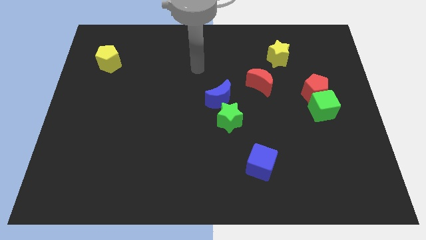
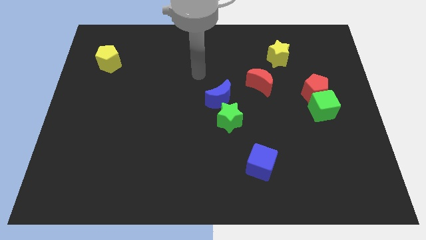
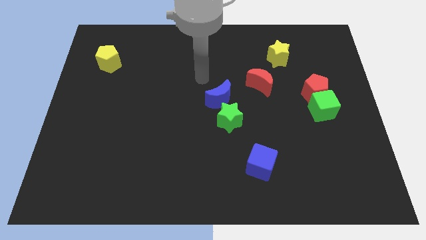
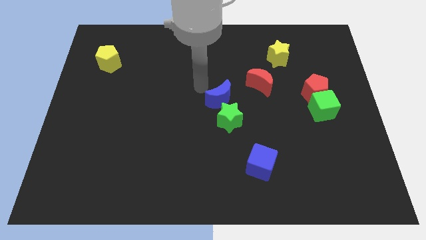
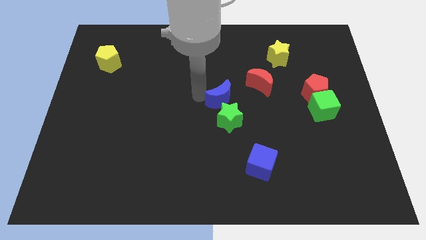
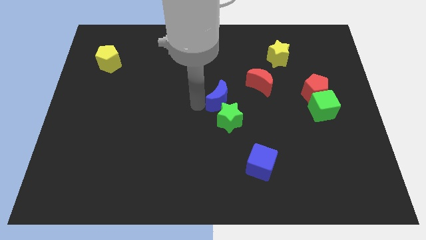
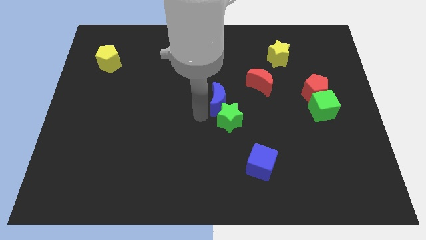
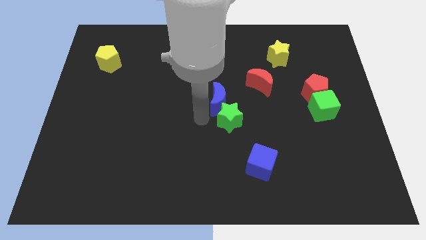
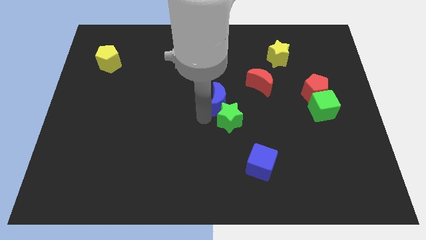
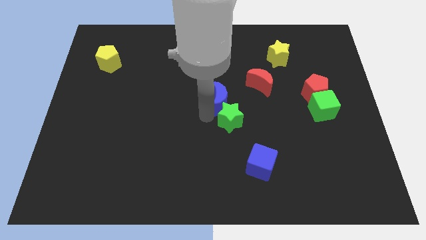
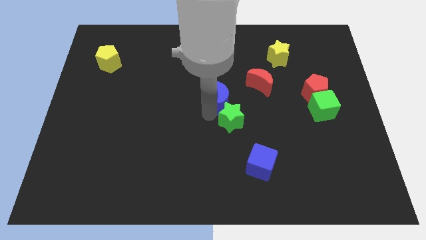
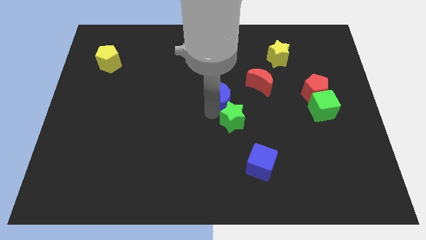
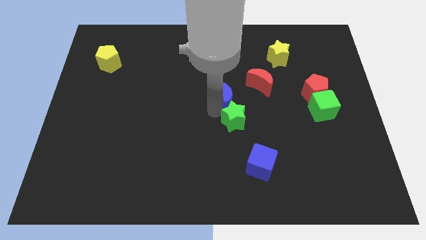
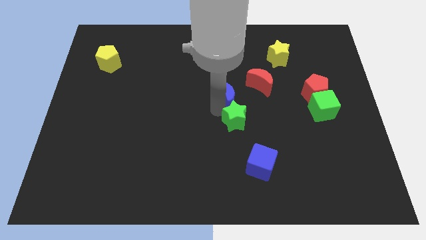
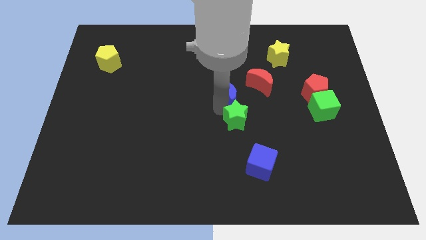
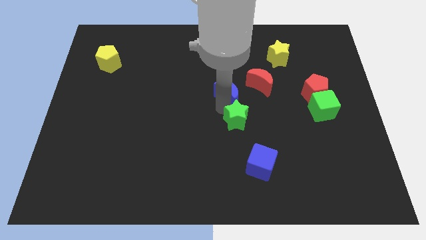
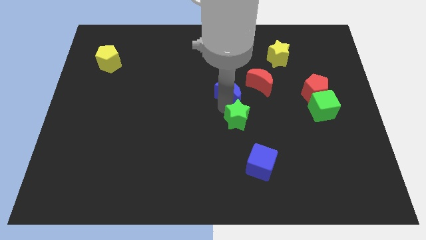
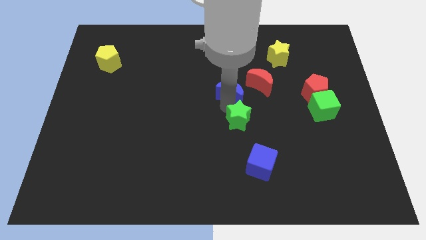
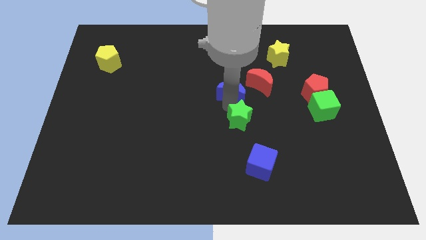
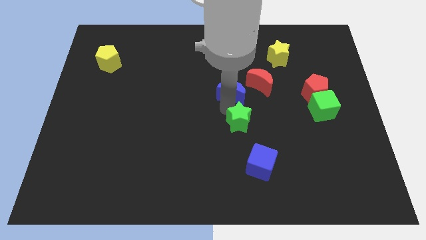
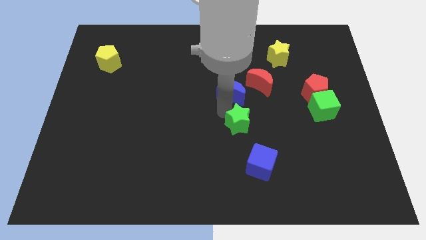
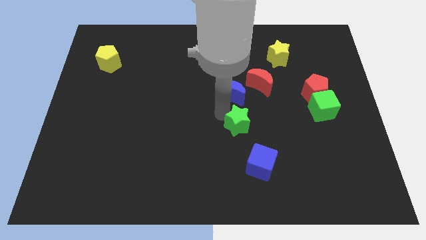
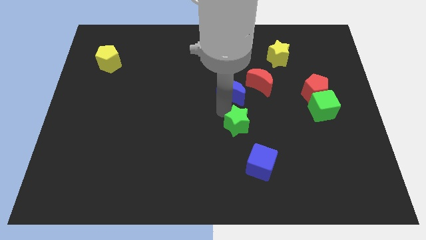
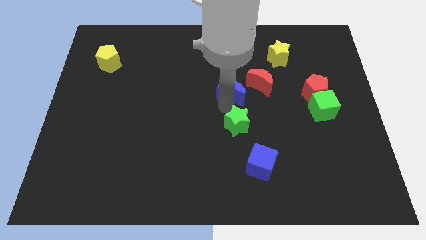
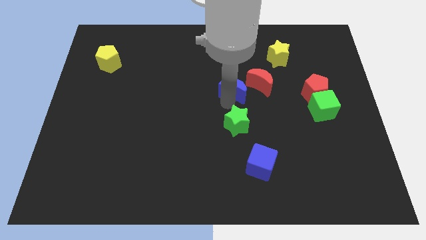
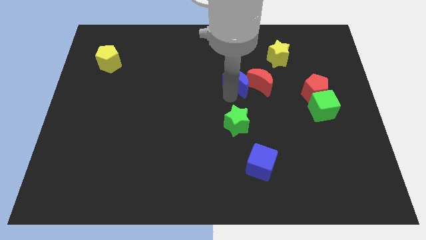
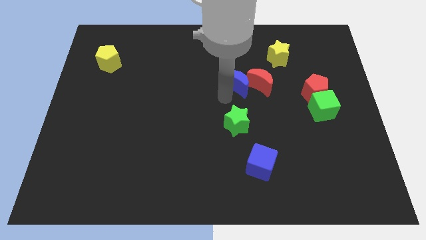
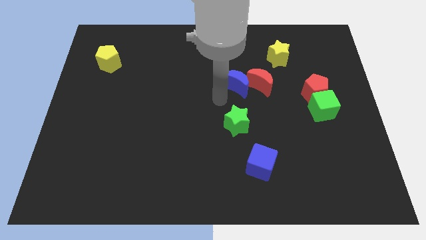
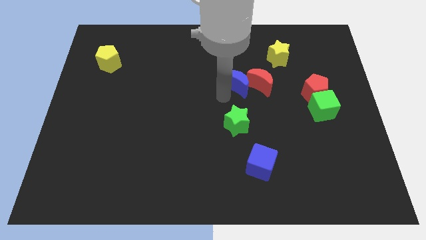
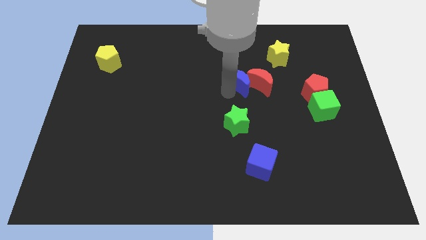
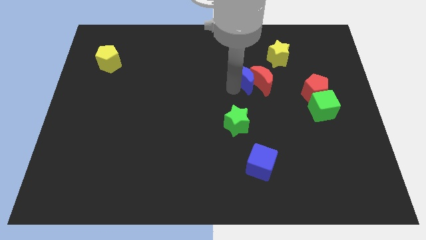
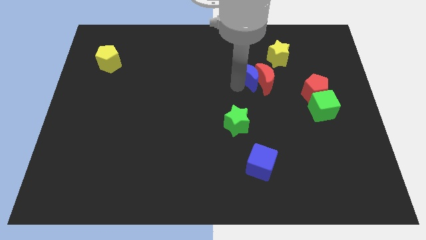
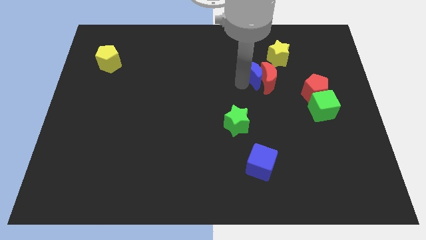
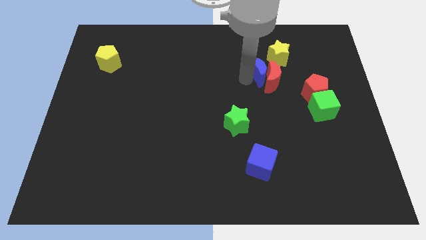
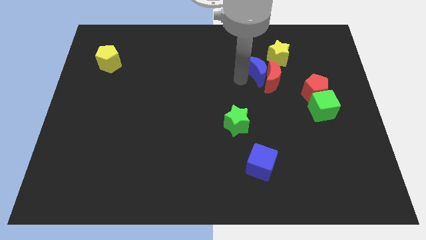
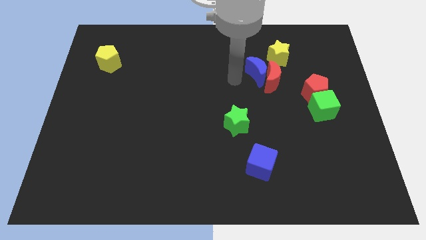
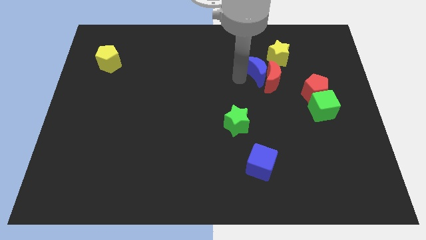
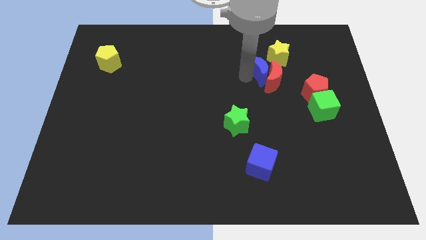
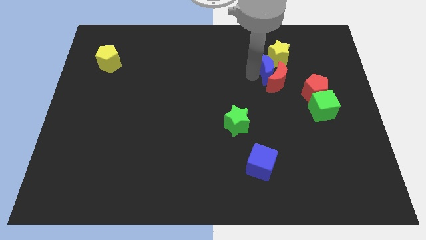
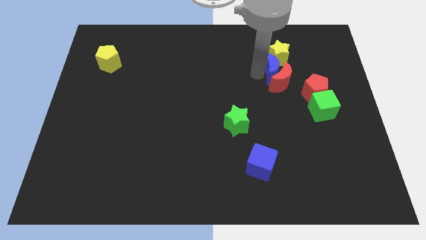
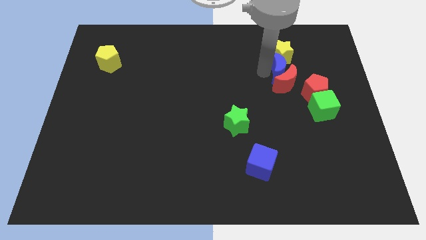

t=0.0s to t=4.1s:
put the blue moon to the bottom right side of the yellow star

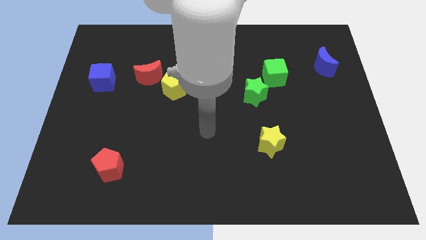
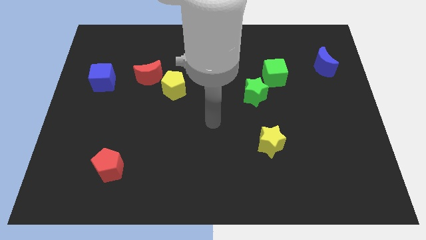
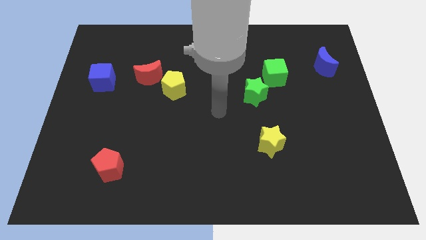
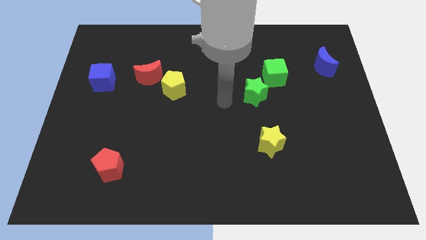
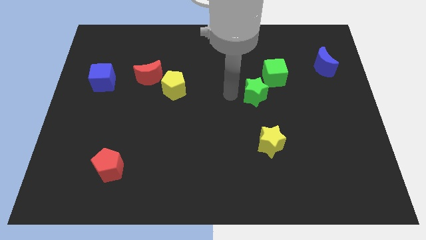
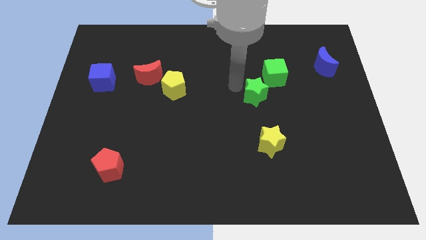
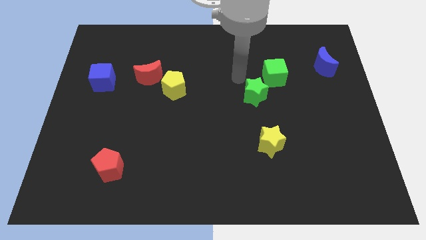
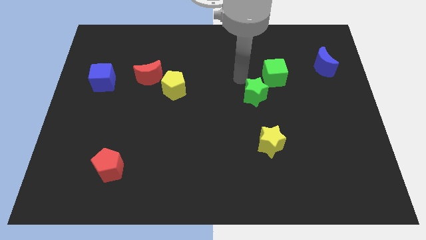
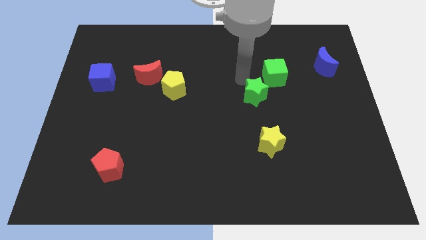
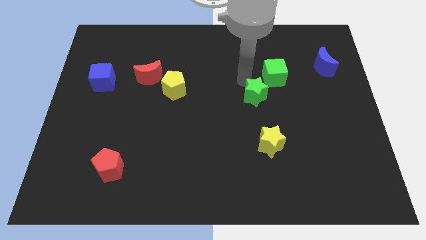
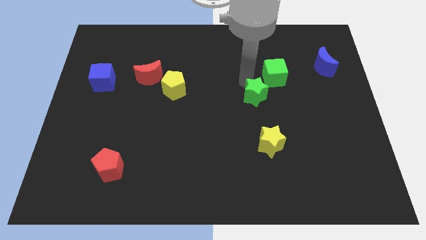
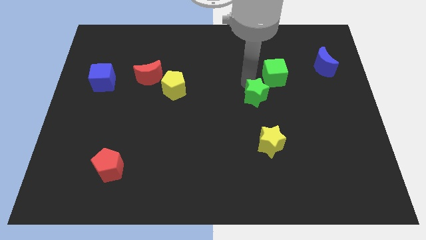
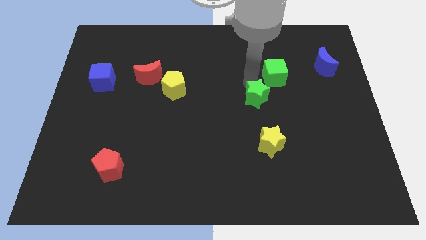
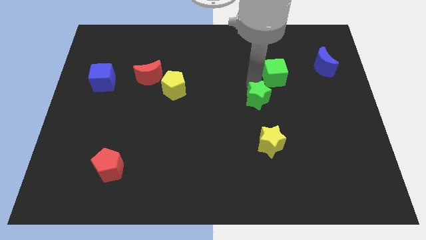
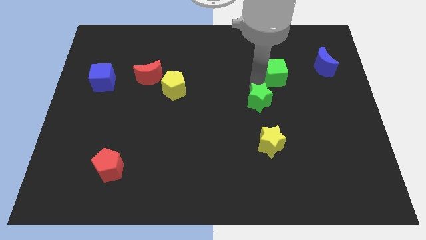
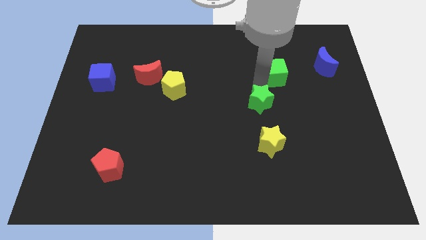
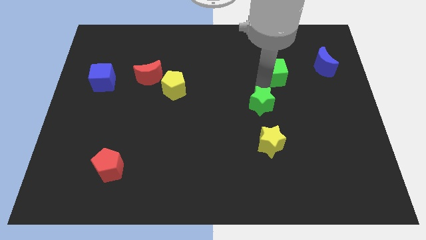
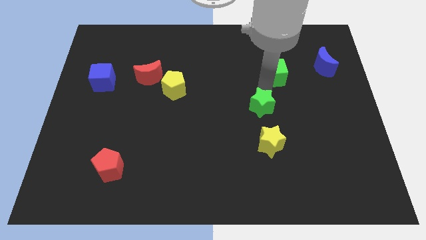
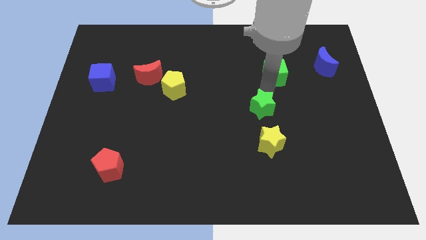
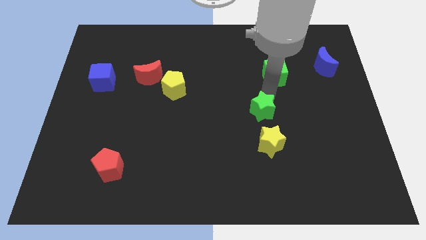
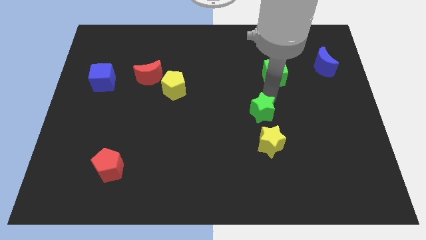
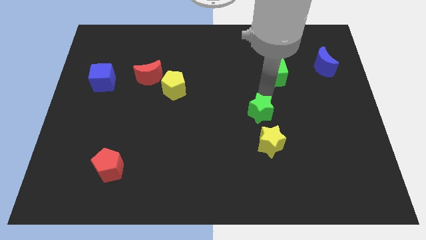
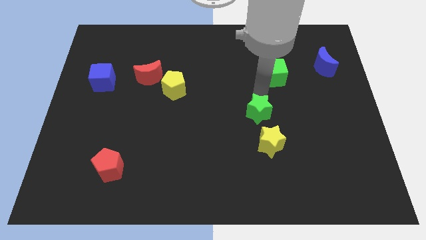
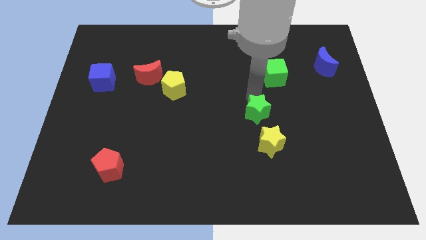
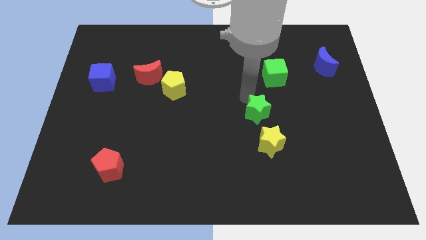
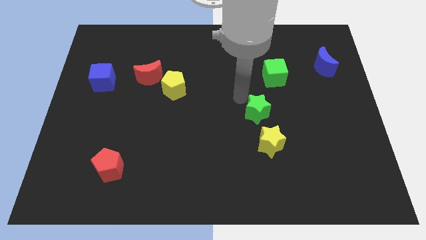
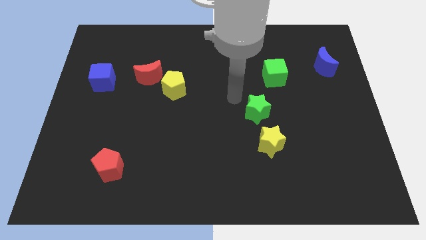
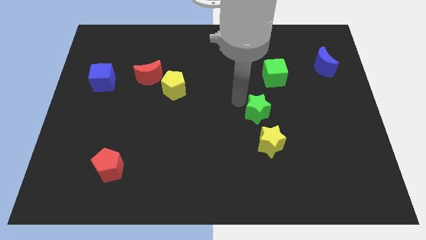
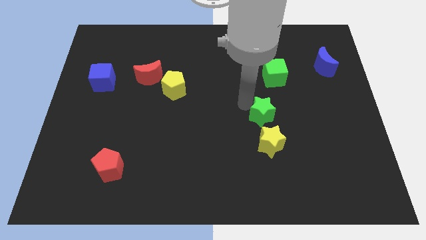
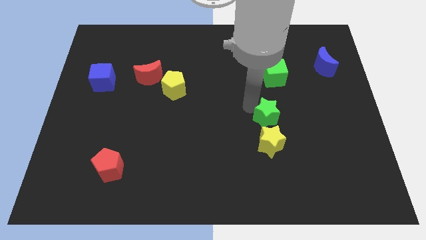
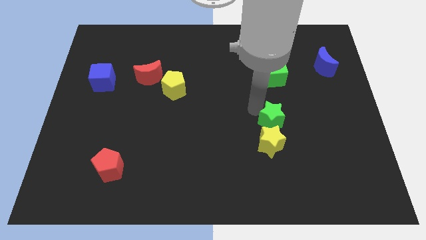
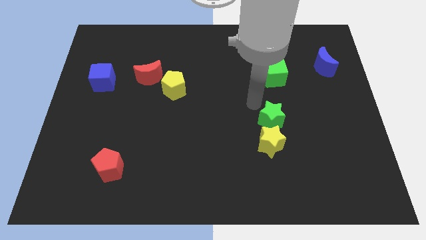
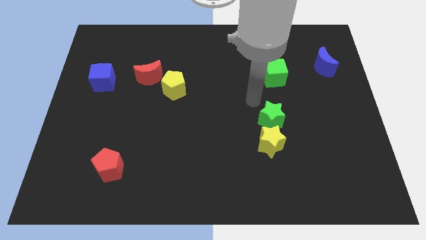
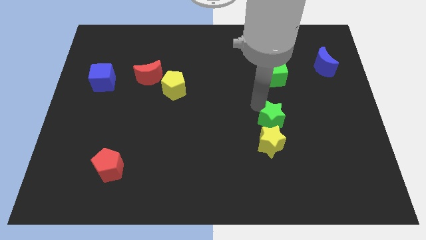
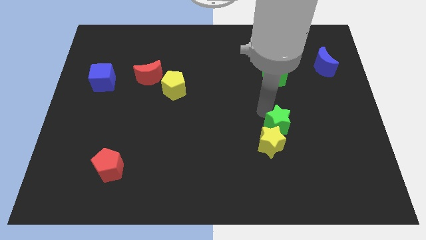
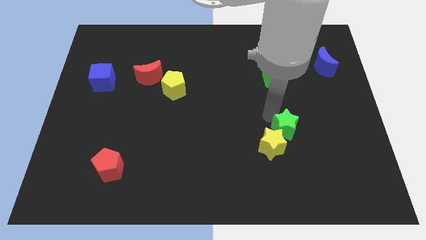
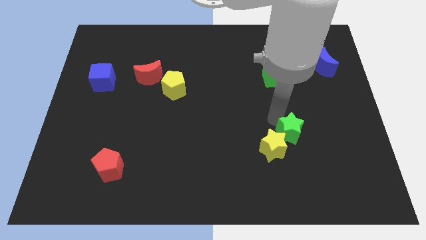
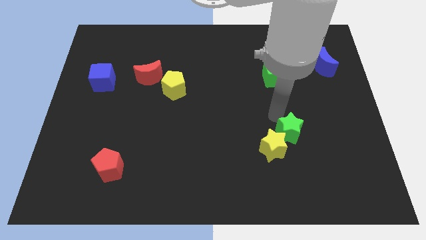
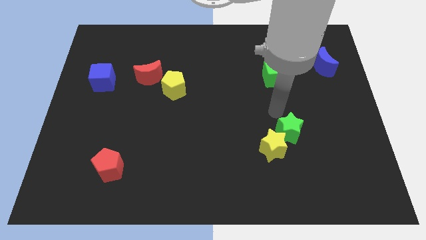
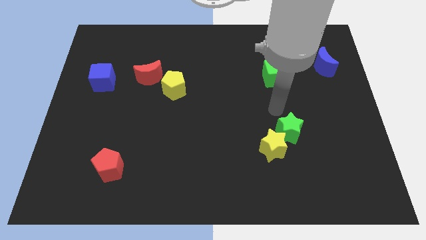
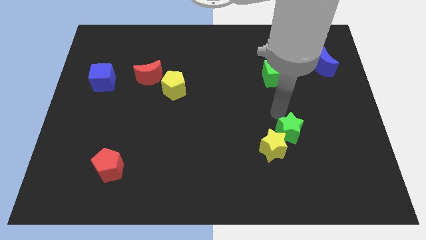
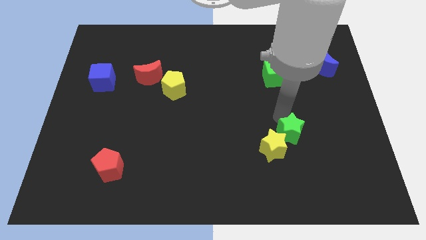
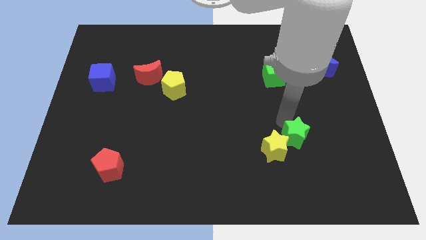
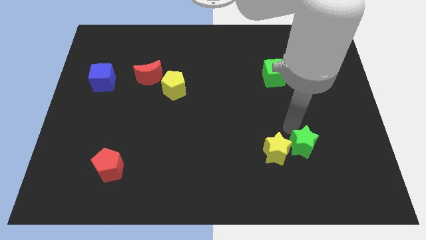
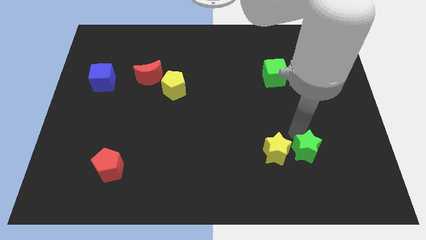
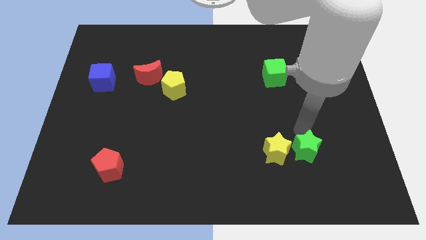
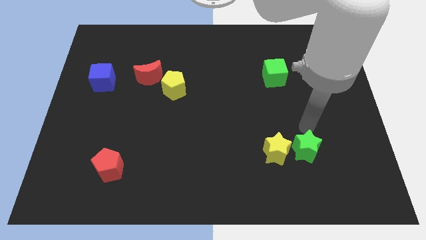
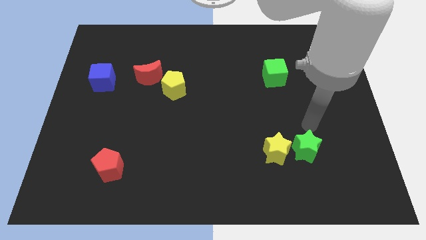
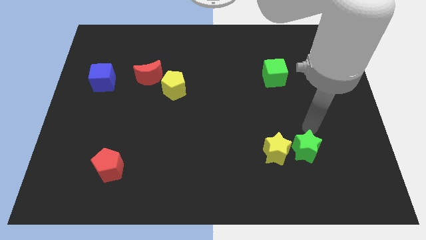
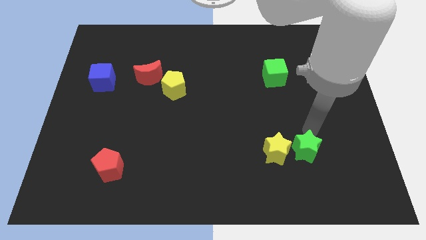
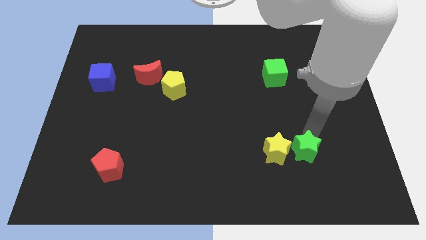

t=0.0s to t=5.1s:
slide the green star to the bottom right of the yellow star
